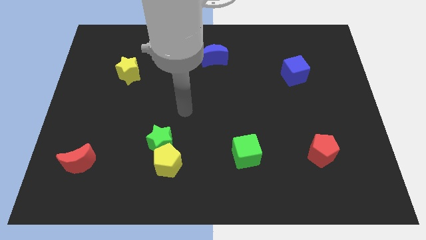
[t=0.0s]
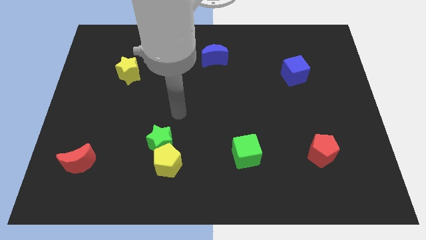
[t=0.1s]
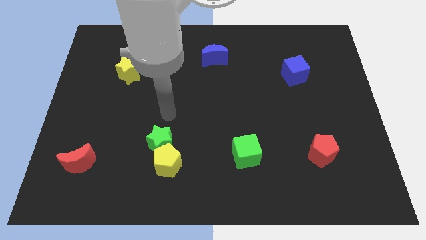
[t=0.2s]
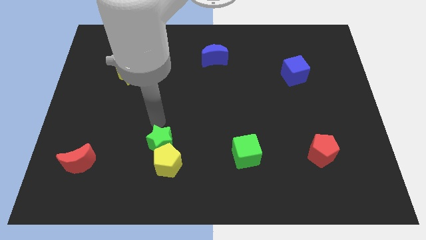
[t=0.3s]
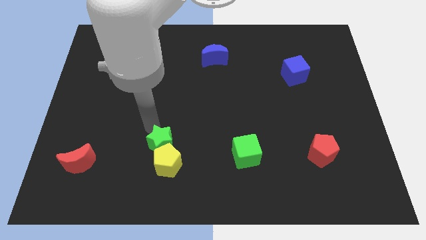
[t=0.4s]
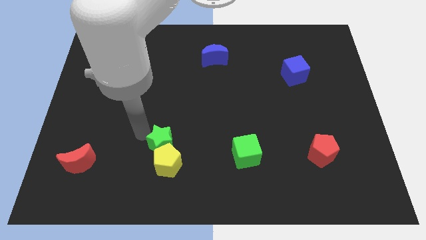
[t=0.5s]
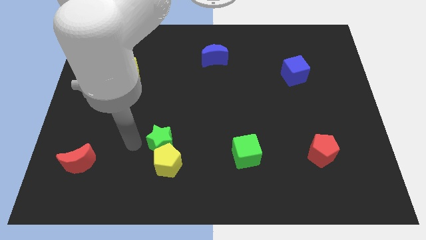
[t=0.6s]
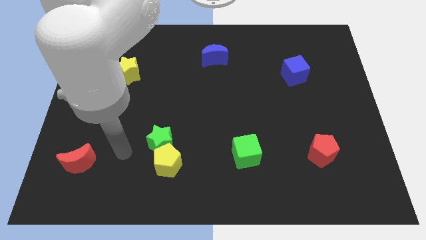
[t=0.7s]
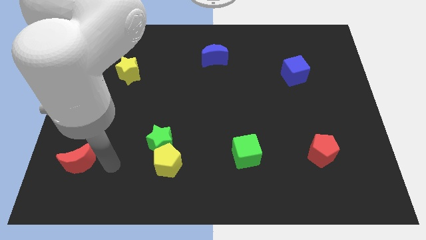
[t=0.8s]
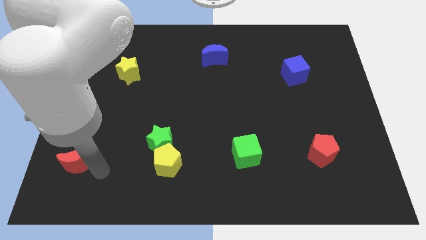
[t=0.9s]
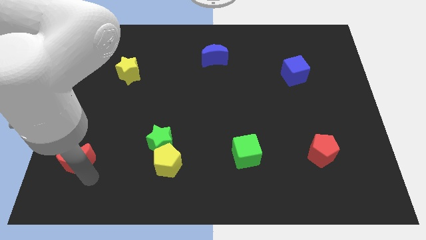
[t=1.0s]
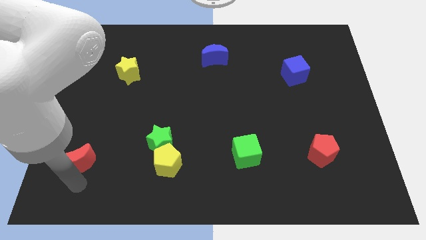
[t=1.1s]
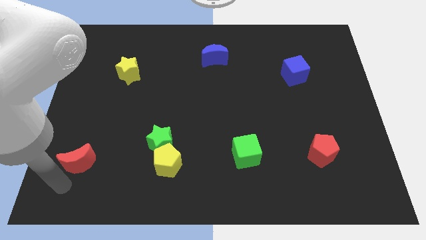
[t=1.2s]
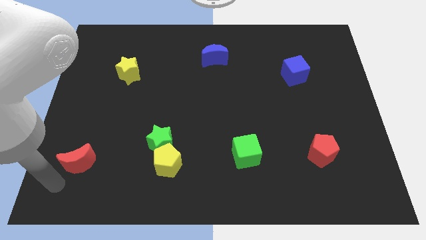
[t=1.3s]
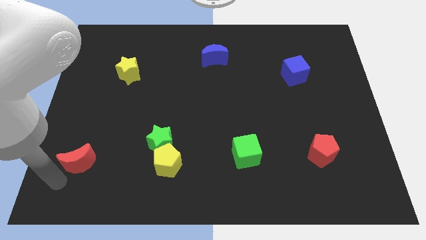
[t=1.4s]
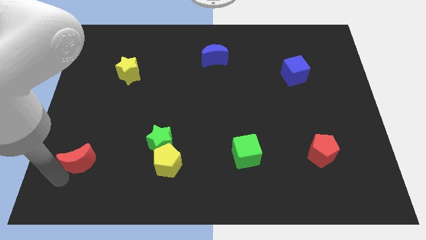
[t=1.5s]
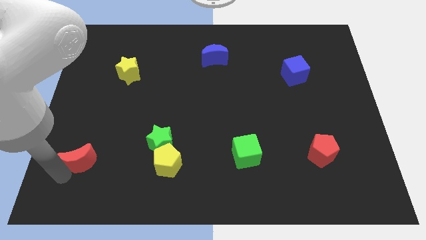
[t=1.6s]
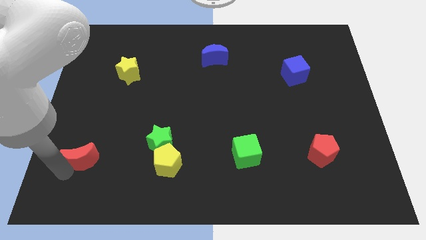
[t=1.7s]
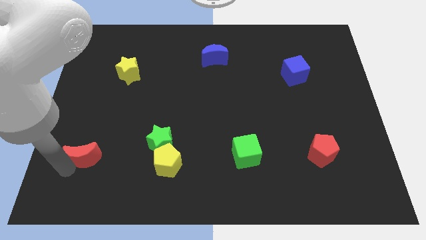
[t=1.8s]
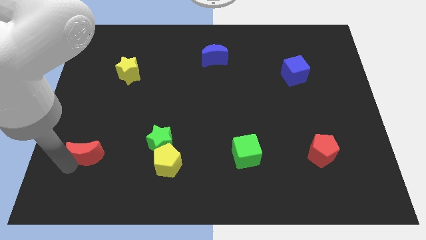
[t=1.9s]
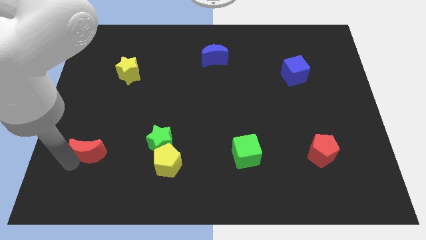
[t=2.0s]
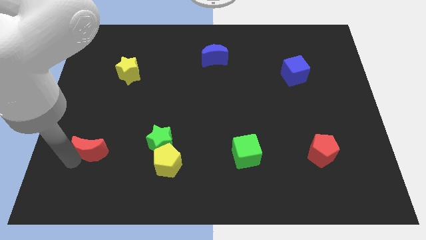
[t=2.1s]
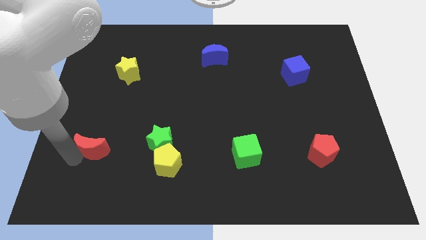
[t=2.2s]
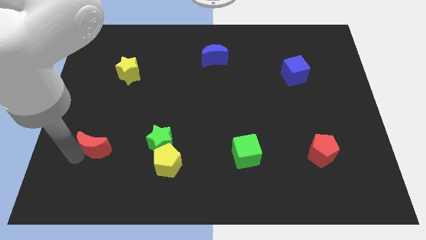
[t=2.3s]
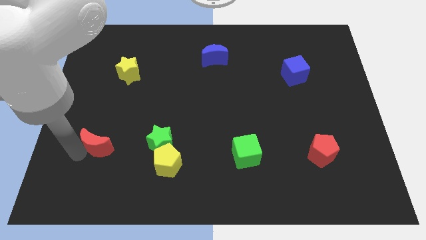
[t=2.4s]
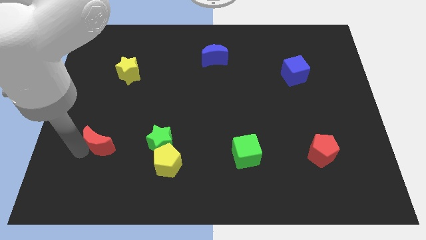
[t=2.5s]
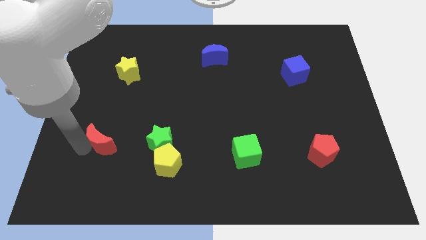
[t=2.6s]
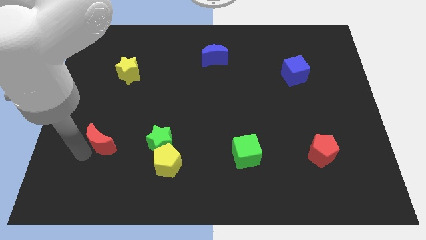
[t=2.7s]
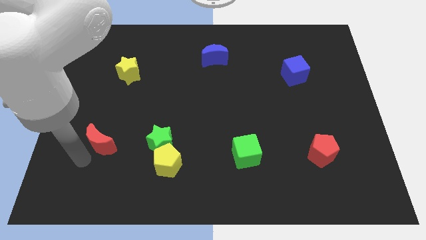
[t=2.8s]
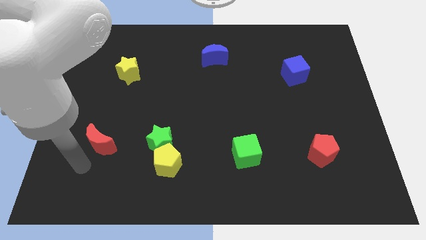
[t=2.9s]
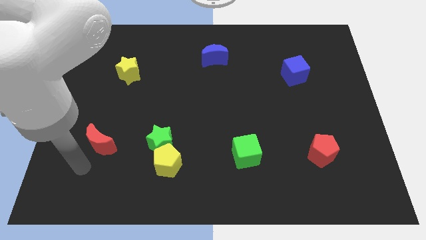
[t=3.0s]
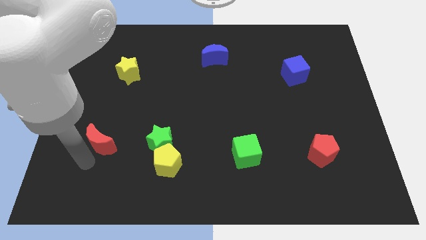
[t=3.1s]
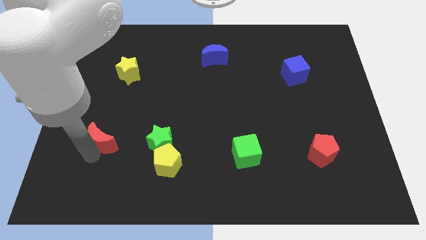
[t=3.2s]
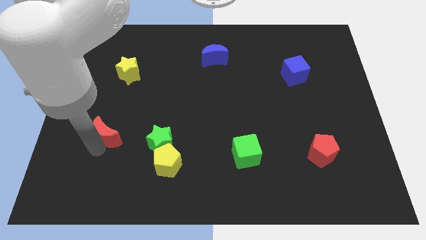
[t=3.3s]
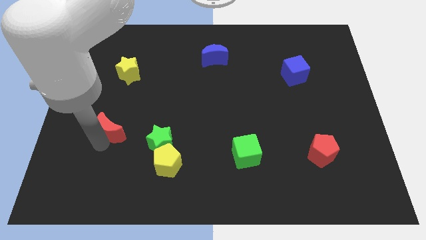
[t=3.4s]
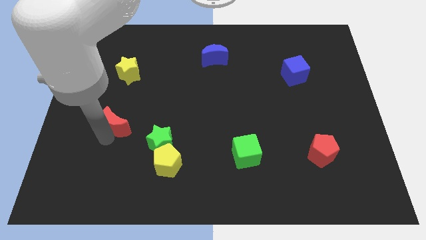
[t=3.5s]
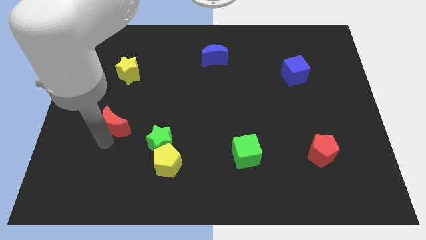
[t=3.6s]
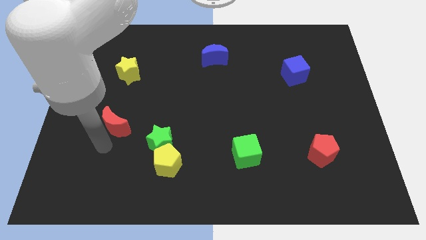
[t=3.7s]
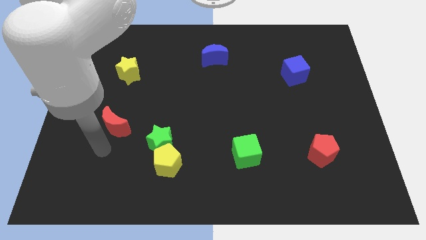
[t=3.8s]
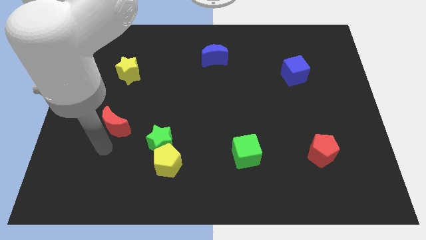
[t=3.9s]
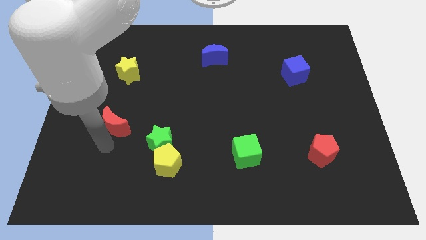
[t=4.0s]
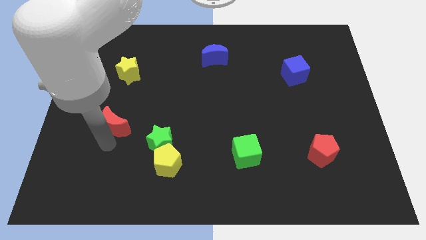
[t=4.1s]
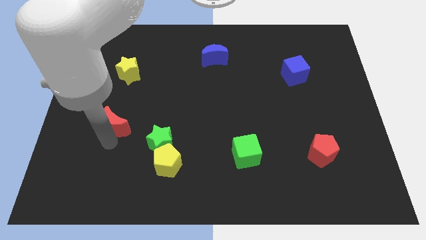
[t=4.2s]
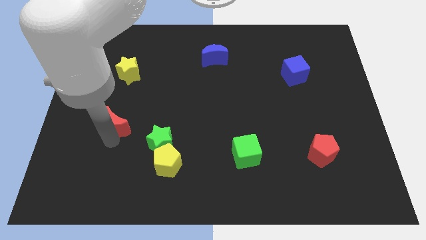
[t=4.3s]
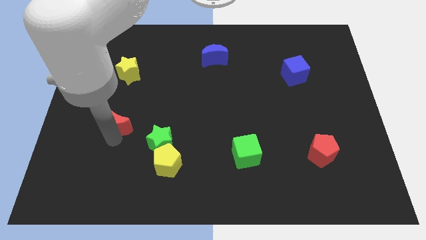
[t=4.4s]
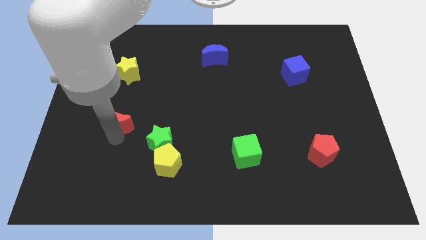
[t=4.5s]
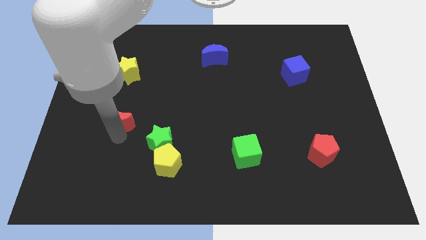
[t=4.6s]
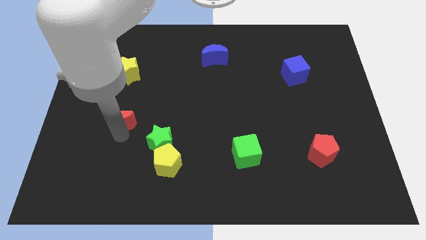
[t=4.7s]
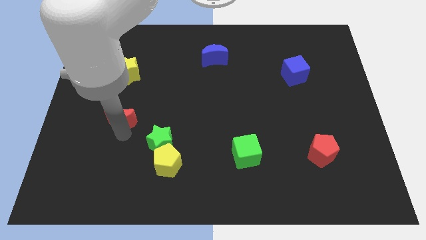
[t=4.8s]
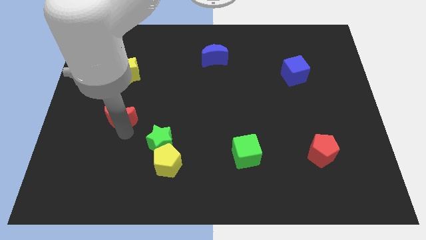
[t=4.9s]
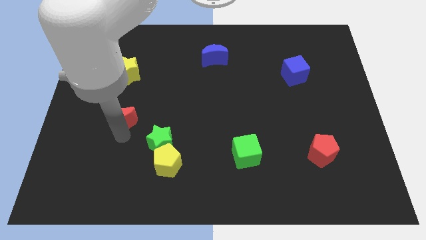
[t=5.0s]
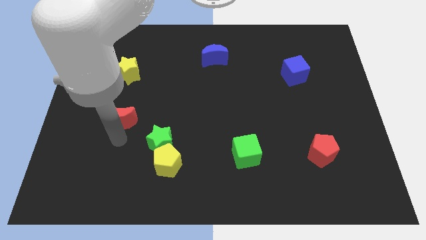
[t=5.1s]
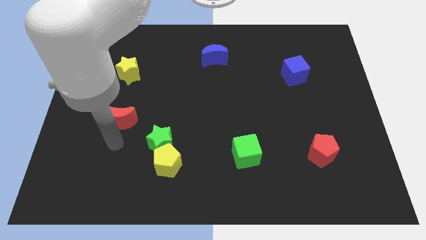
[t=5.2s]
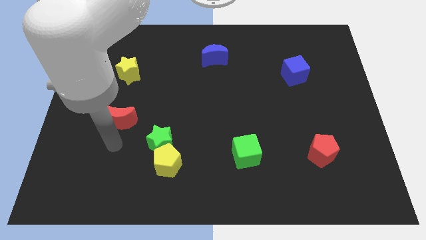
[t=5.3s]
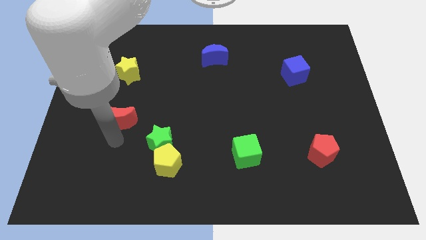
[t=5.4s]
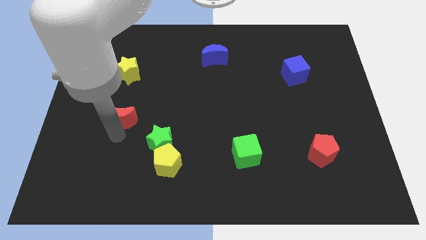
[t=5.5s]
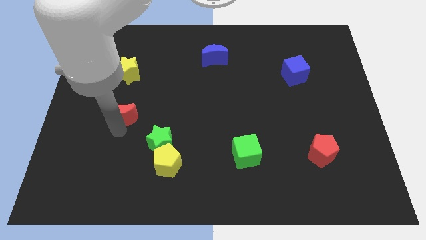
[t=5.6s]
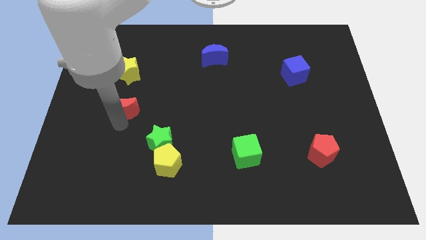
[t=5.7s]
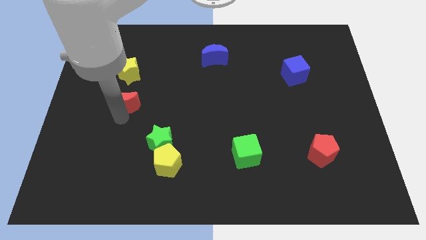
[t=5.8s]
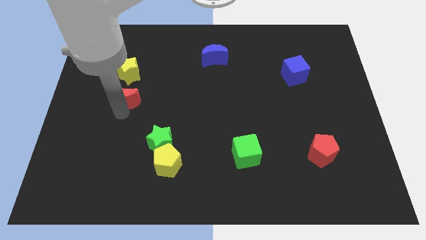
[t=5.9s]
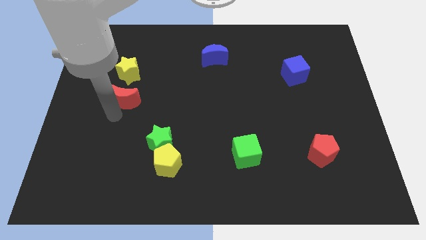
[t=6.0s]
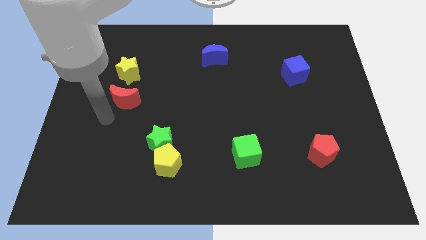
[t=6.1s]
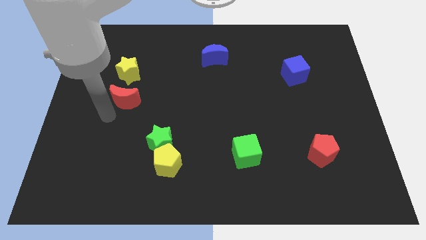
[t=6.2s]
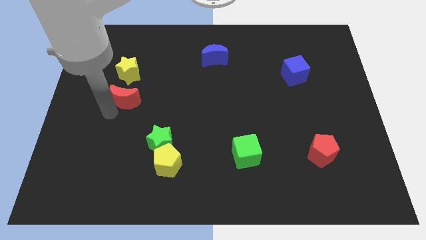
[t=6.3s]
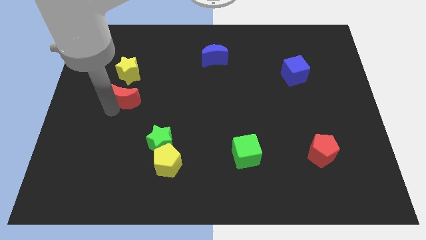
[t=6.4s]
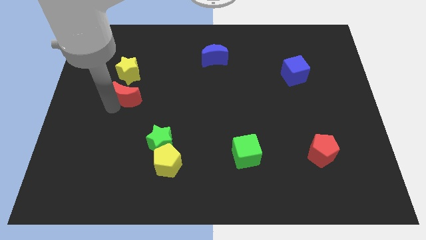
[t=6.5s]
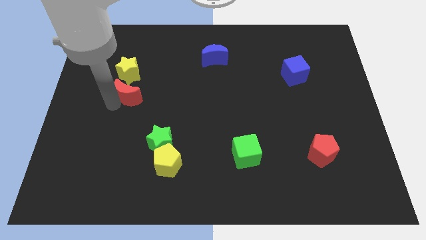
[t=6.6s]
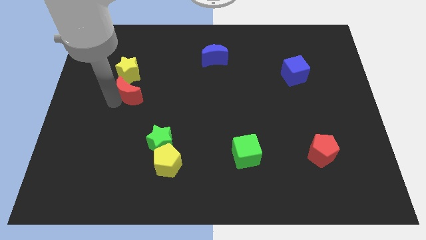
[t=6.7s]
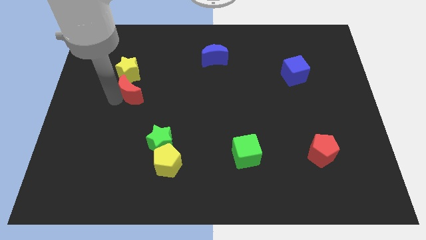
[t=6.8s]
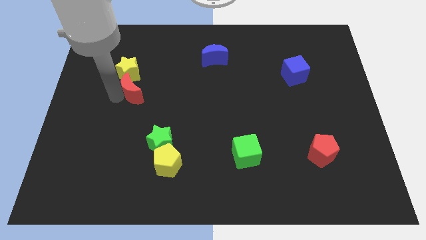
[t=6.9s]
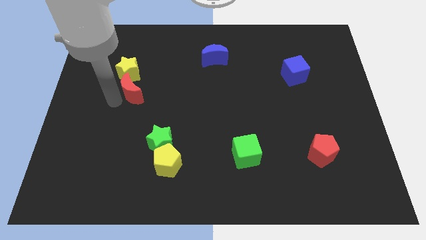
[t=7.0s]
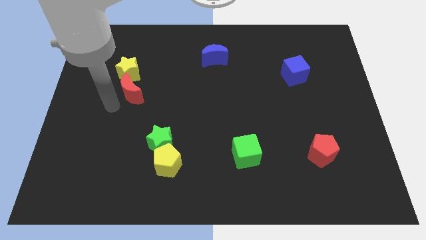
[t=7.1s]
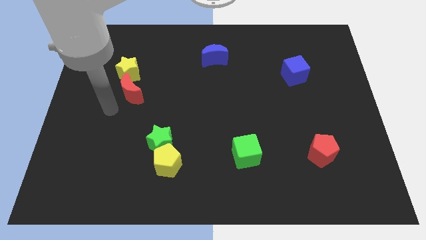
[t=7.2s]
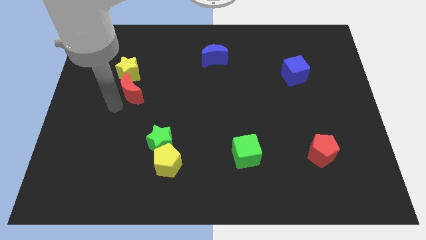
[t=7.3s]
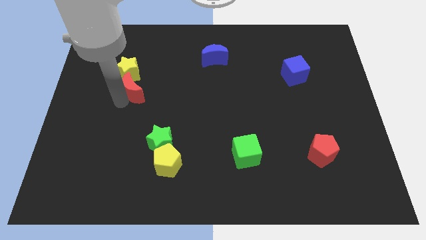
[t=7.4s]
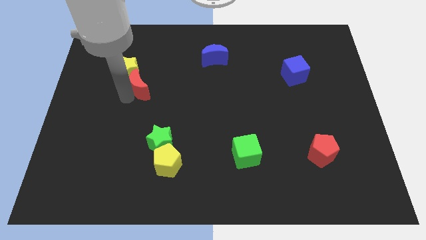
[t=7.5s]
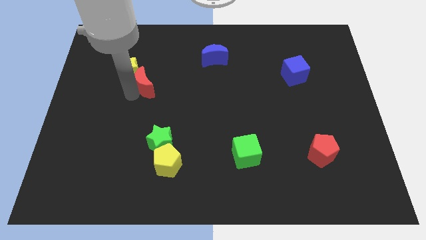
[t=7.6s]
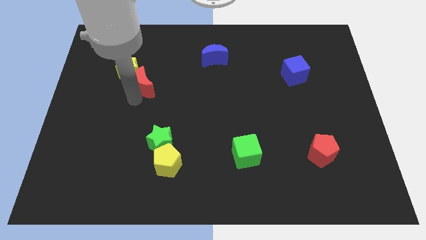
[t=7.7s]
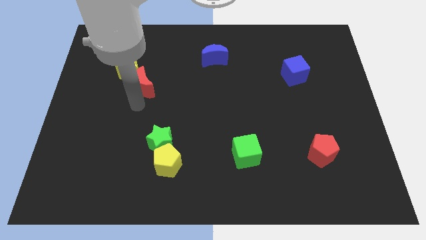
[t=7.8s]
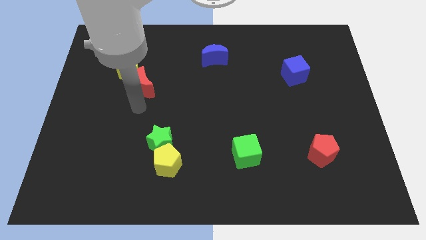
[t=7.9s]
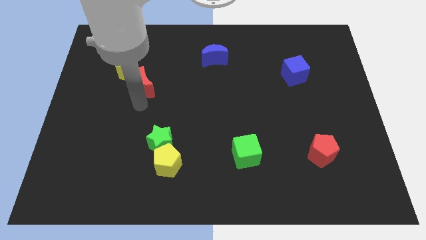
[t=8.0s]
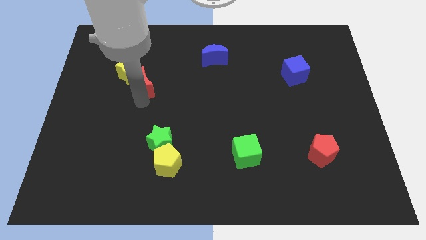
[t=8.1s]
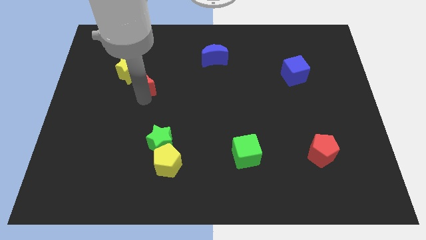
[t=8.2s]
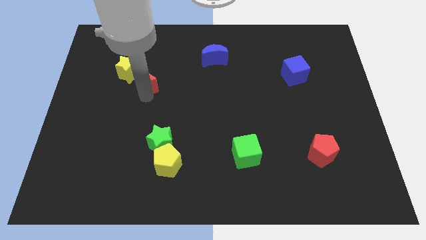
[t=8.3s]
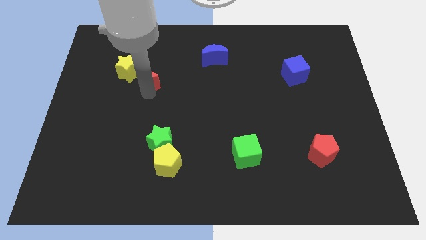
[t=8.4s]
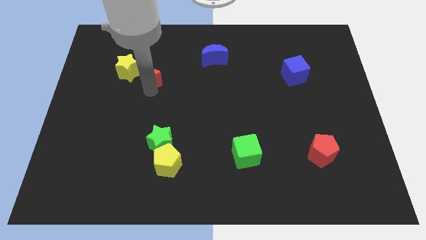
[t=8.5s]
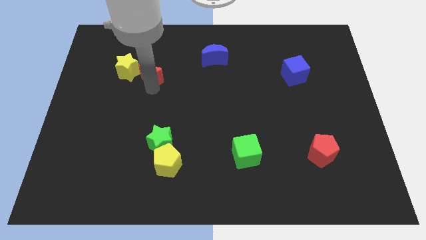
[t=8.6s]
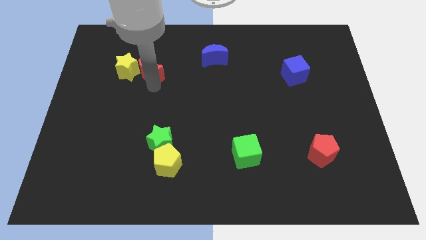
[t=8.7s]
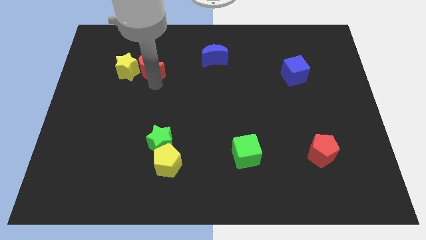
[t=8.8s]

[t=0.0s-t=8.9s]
slide the red moon diagonally up and to the right of the yellow star
